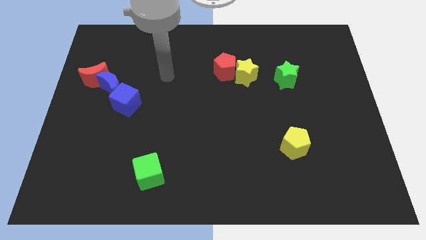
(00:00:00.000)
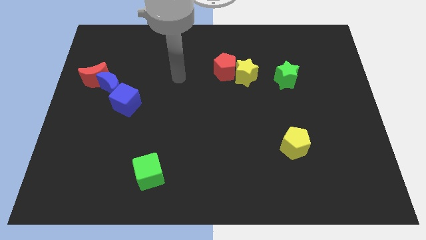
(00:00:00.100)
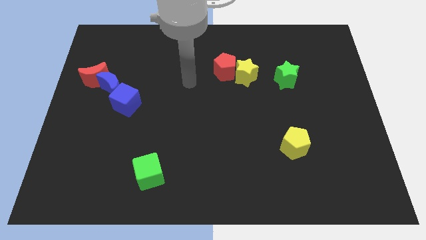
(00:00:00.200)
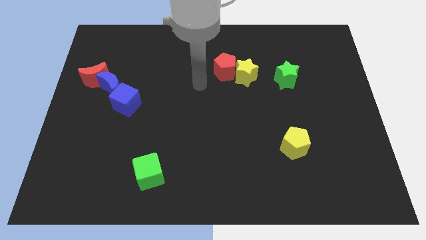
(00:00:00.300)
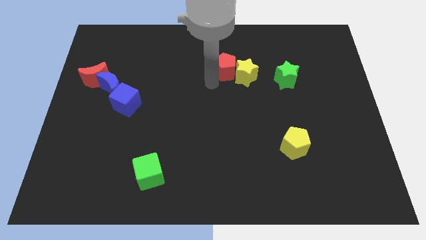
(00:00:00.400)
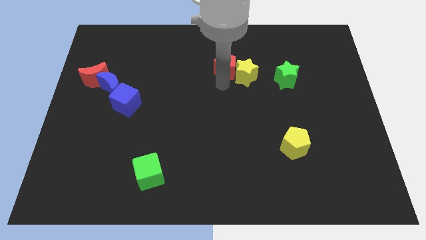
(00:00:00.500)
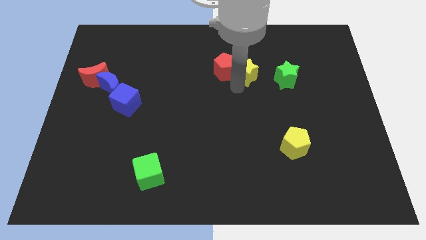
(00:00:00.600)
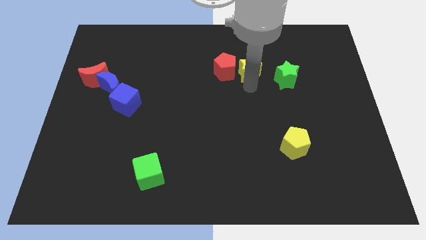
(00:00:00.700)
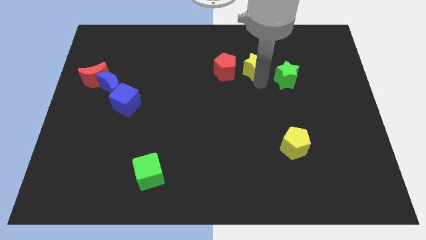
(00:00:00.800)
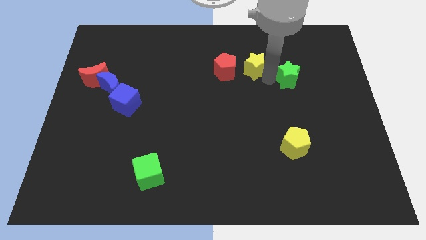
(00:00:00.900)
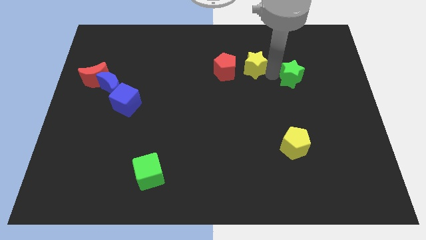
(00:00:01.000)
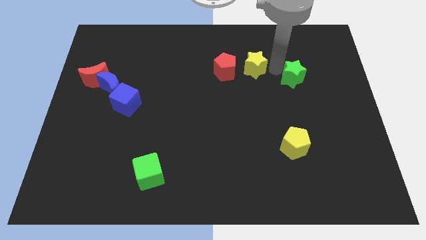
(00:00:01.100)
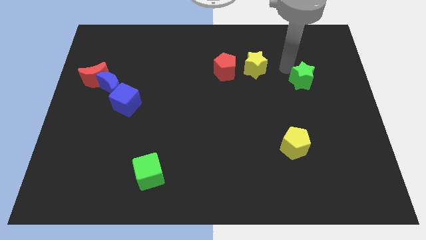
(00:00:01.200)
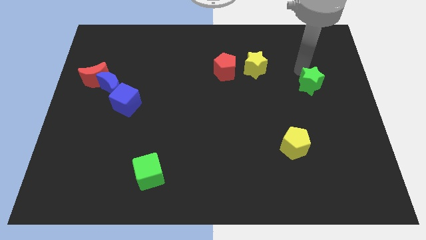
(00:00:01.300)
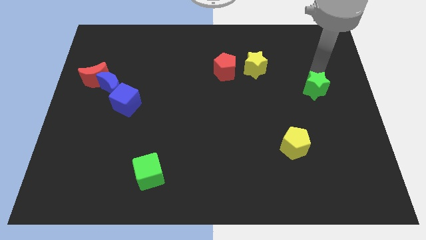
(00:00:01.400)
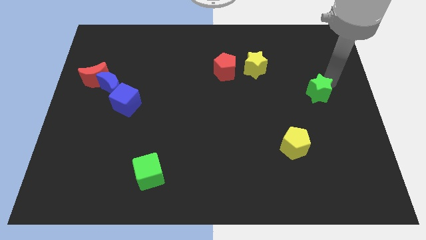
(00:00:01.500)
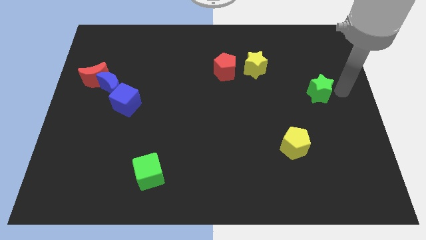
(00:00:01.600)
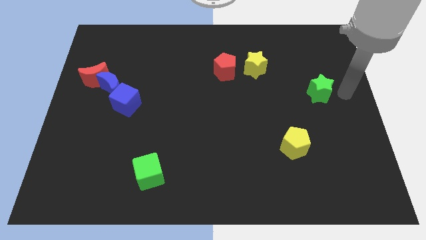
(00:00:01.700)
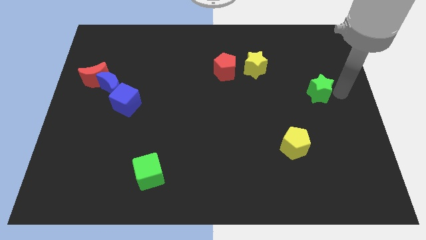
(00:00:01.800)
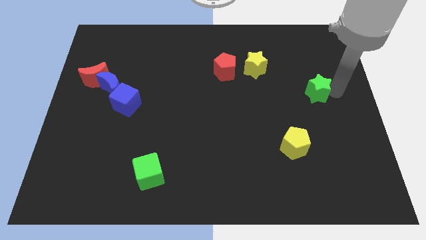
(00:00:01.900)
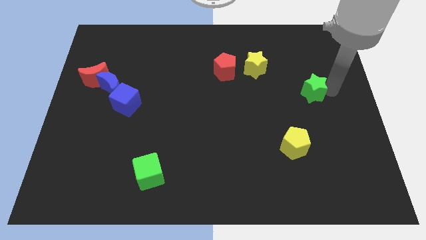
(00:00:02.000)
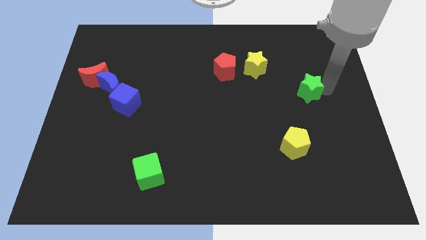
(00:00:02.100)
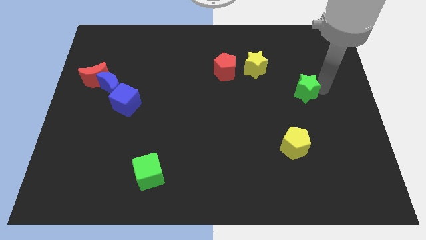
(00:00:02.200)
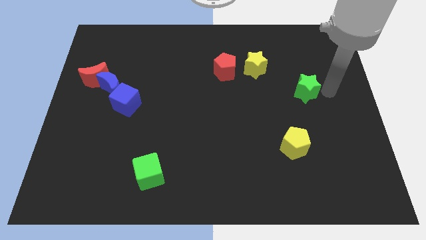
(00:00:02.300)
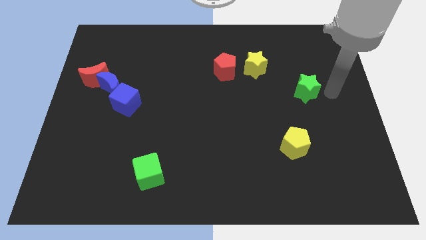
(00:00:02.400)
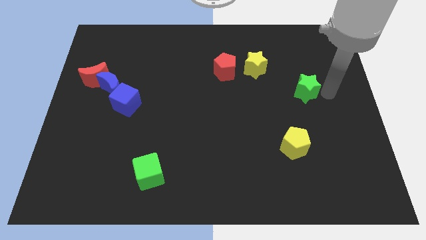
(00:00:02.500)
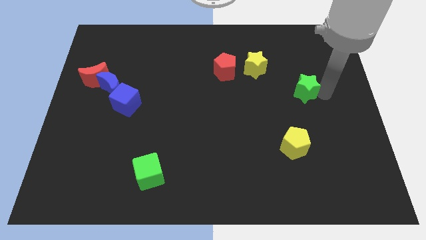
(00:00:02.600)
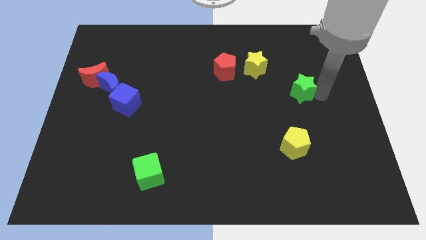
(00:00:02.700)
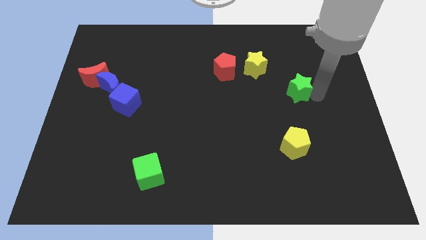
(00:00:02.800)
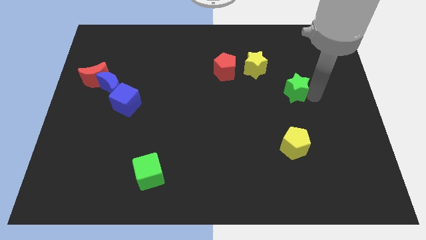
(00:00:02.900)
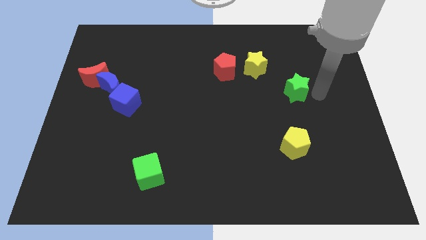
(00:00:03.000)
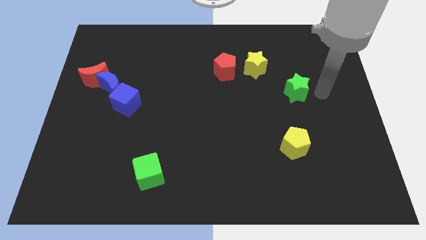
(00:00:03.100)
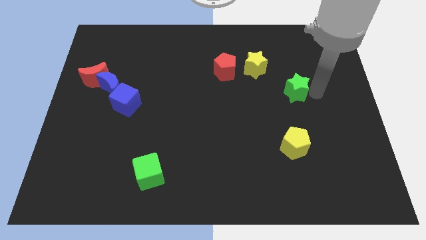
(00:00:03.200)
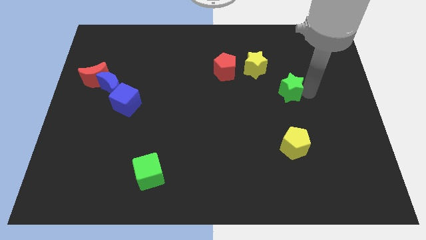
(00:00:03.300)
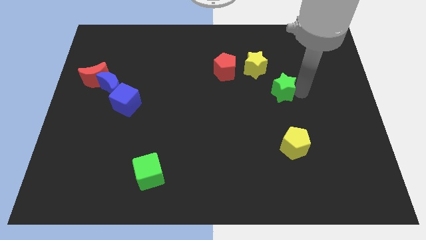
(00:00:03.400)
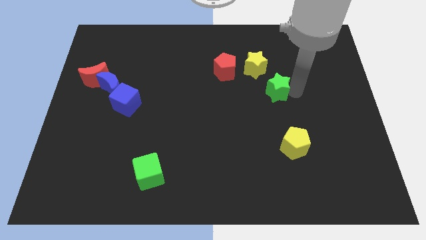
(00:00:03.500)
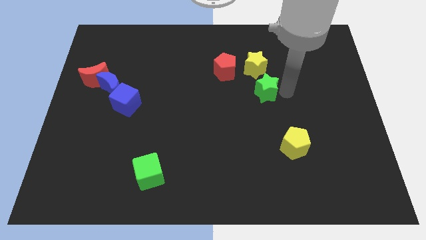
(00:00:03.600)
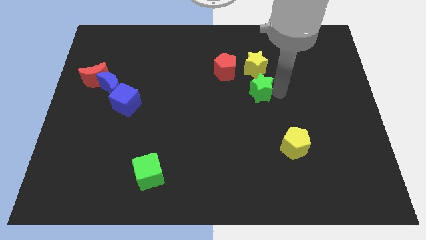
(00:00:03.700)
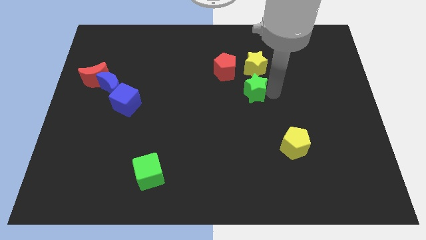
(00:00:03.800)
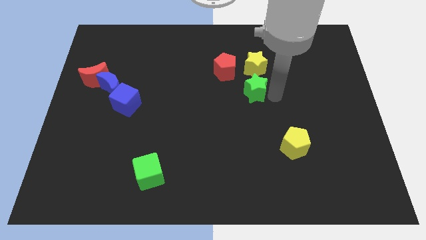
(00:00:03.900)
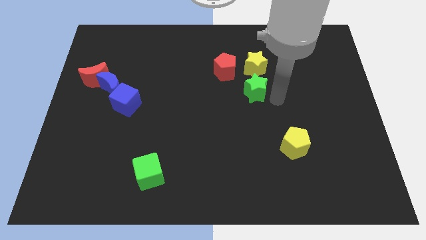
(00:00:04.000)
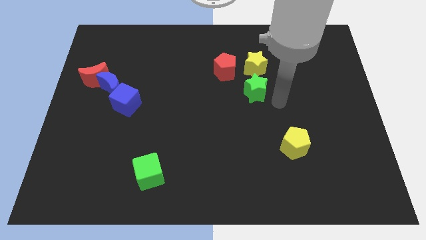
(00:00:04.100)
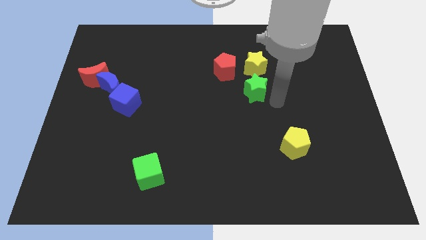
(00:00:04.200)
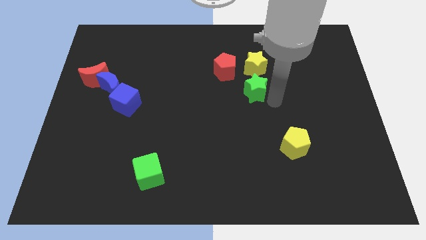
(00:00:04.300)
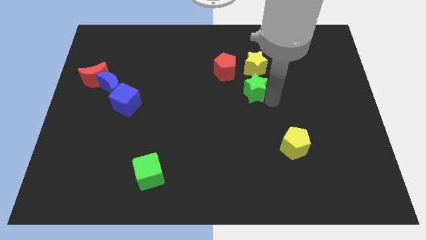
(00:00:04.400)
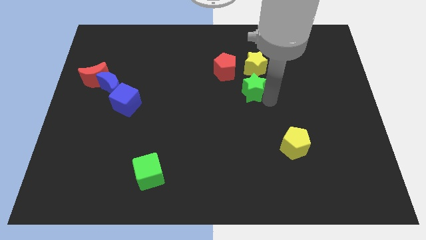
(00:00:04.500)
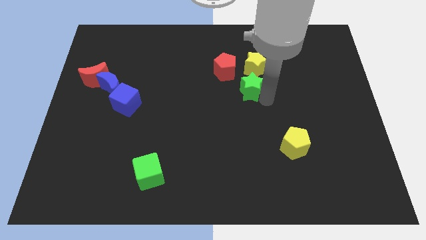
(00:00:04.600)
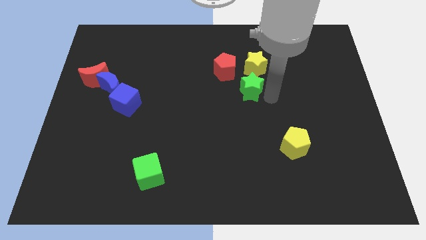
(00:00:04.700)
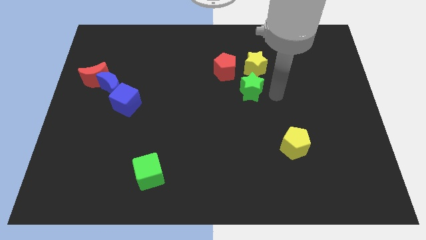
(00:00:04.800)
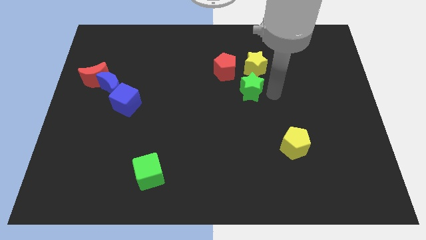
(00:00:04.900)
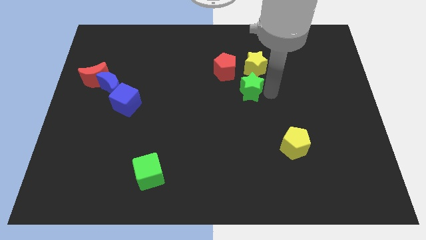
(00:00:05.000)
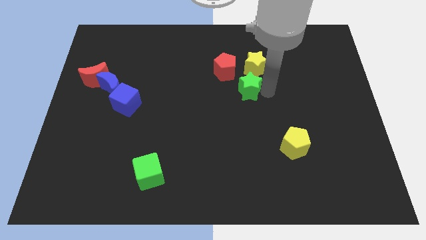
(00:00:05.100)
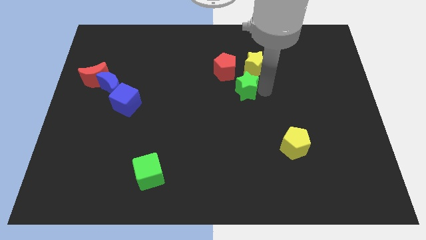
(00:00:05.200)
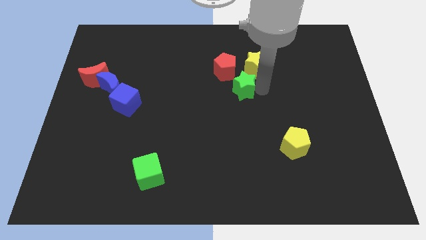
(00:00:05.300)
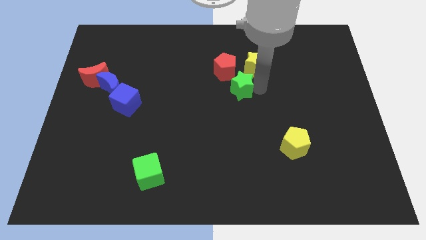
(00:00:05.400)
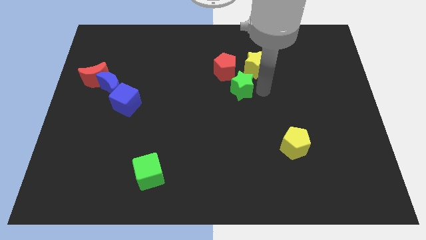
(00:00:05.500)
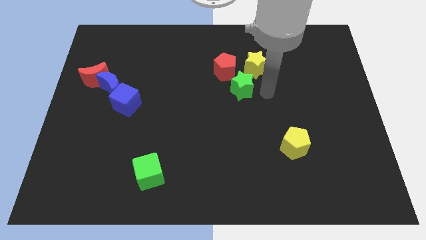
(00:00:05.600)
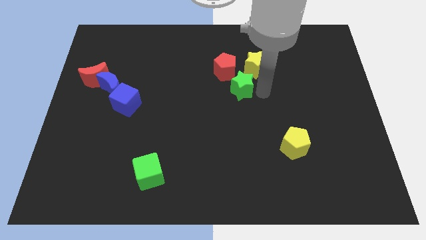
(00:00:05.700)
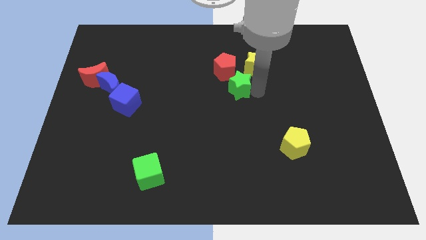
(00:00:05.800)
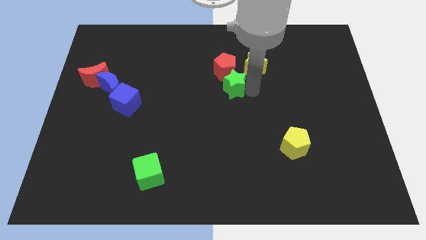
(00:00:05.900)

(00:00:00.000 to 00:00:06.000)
slide the green star close to the red pentagon

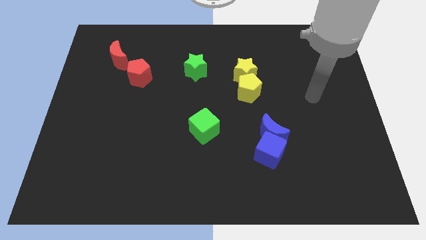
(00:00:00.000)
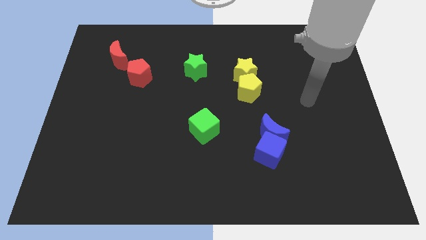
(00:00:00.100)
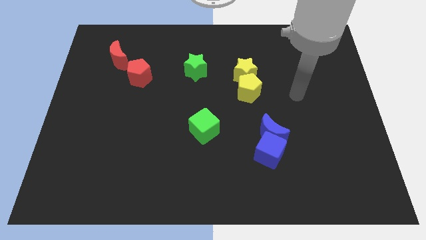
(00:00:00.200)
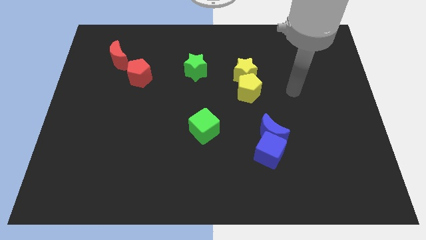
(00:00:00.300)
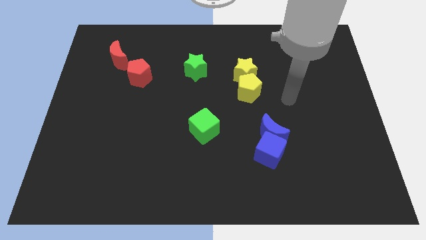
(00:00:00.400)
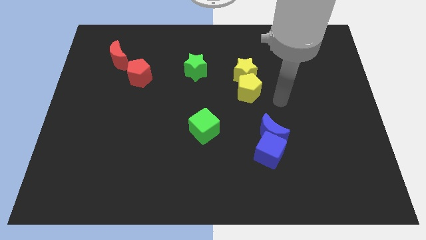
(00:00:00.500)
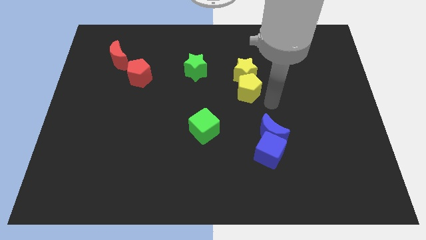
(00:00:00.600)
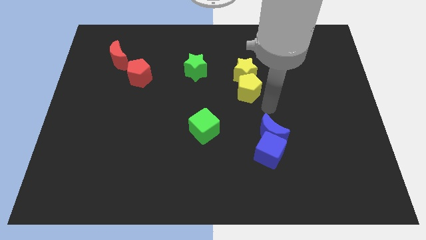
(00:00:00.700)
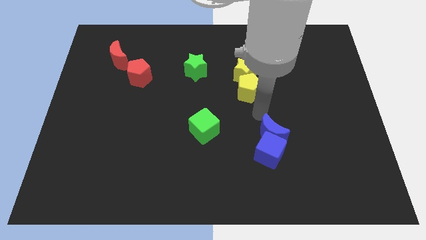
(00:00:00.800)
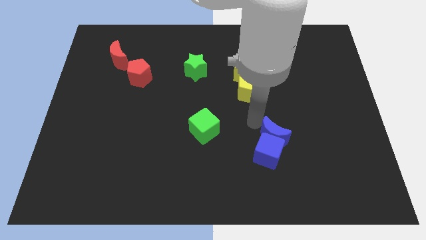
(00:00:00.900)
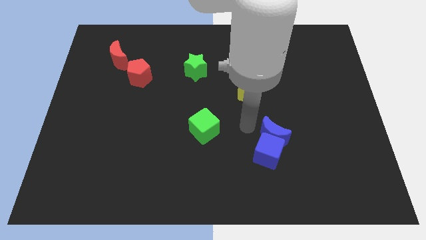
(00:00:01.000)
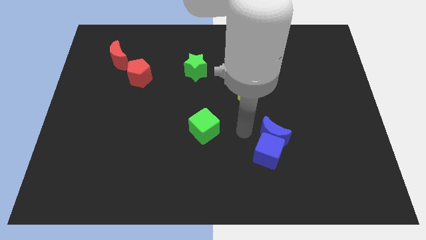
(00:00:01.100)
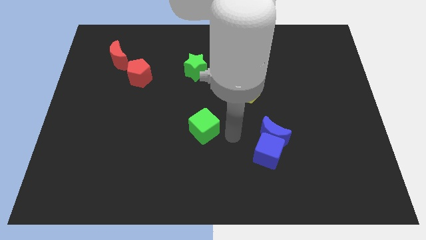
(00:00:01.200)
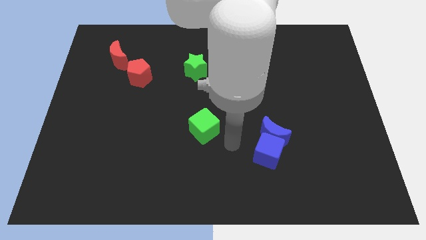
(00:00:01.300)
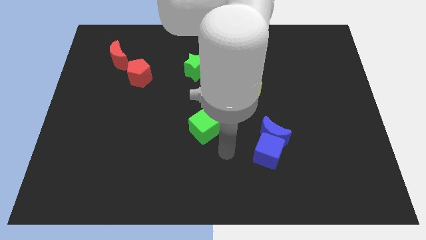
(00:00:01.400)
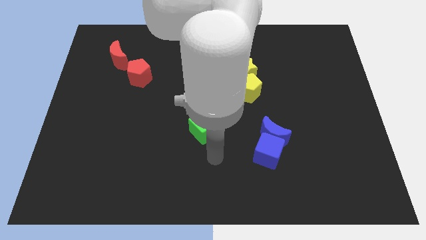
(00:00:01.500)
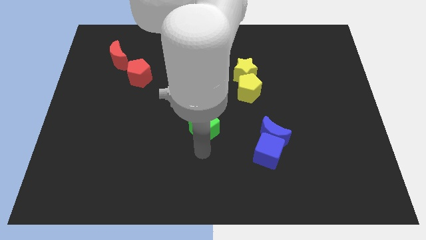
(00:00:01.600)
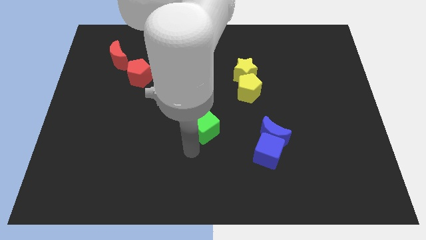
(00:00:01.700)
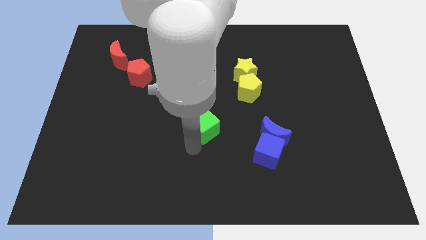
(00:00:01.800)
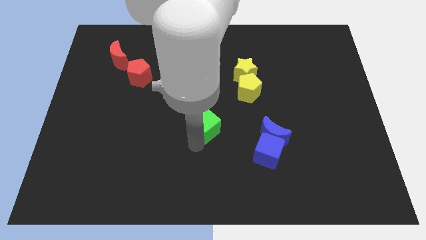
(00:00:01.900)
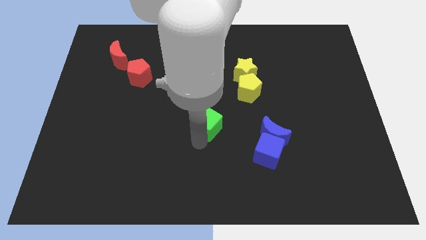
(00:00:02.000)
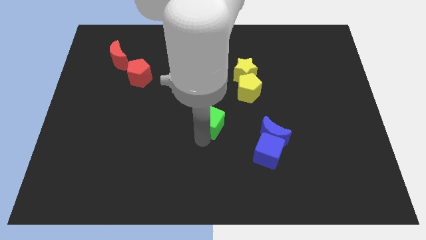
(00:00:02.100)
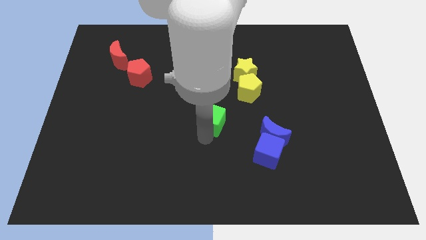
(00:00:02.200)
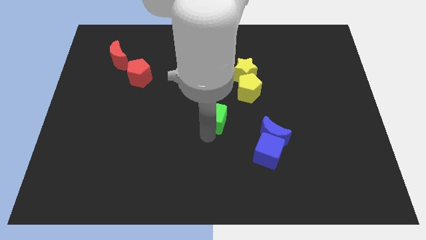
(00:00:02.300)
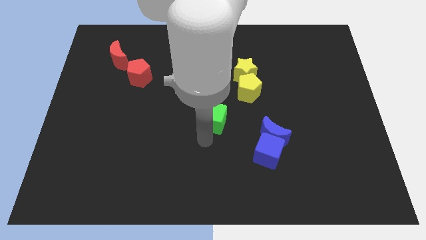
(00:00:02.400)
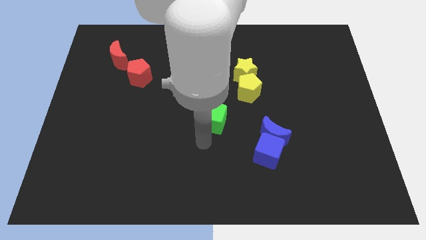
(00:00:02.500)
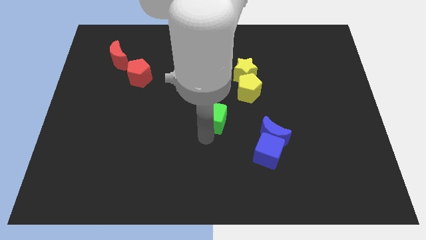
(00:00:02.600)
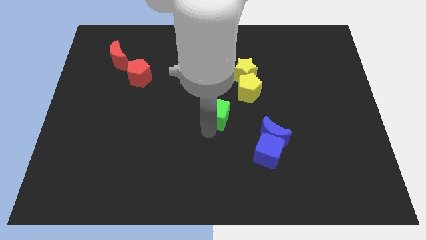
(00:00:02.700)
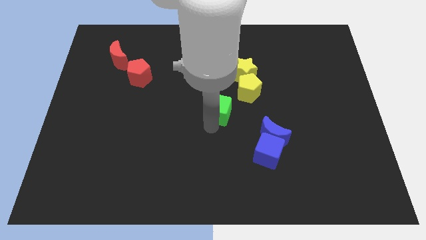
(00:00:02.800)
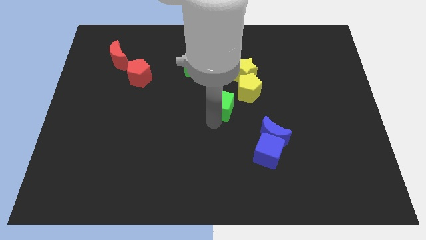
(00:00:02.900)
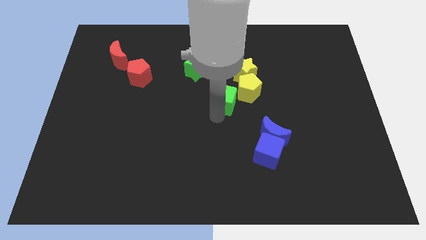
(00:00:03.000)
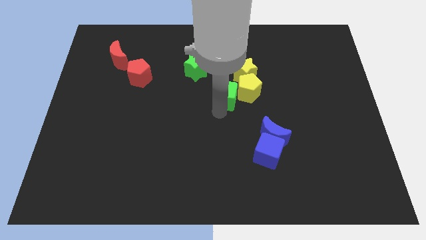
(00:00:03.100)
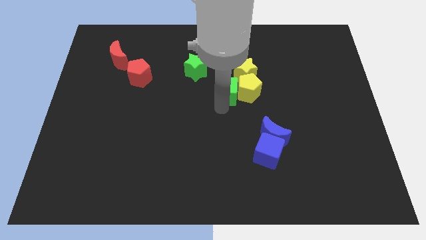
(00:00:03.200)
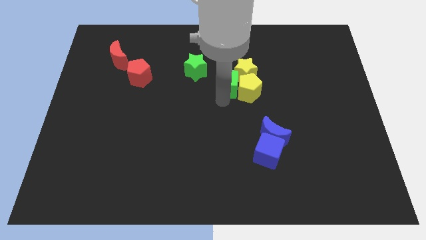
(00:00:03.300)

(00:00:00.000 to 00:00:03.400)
push the green cube towards the yellow star
